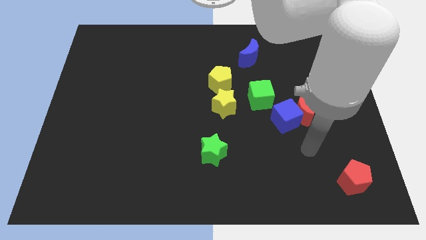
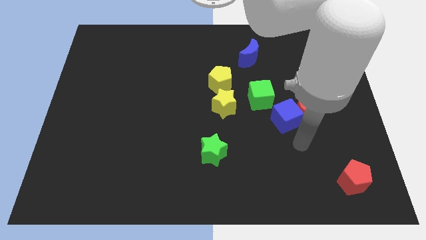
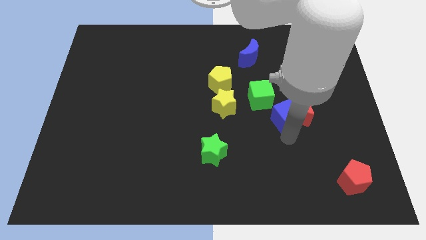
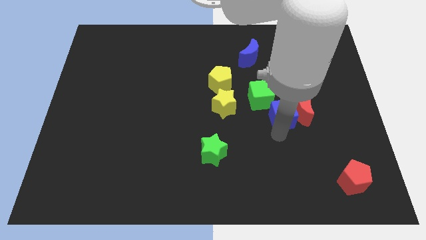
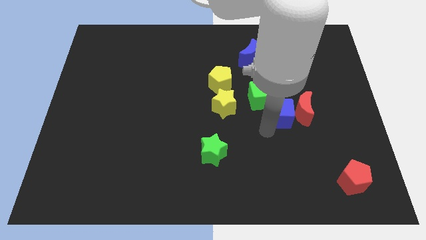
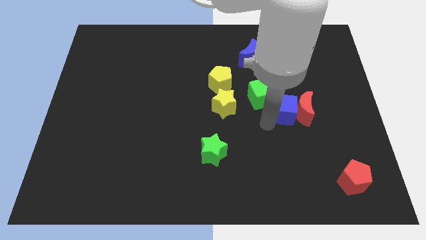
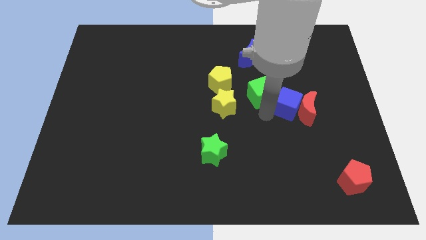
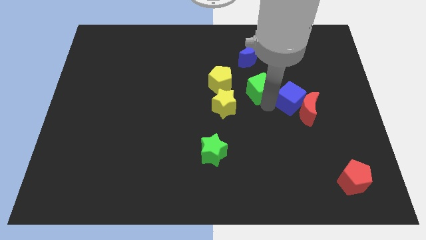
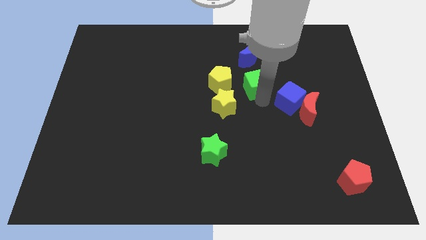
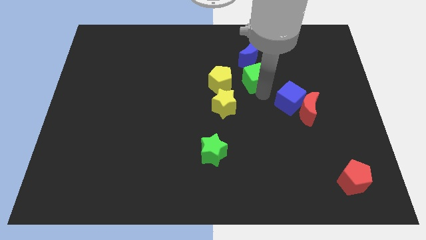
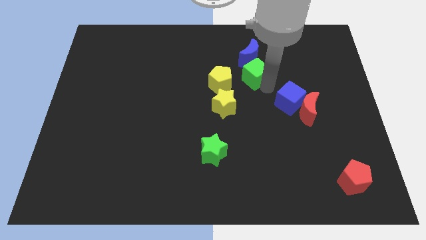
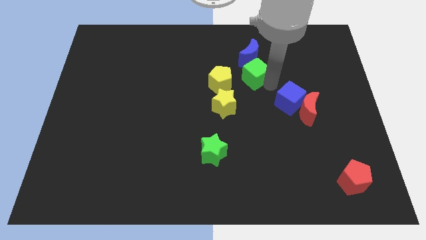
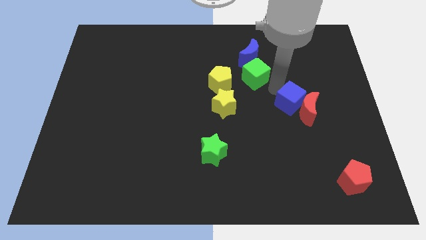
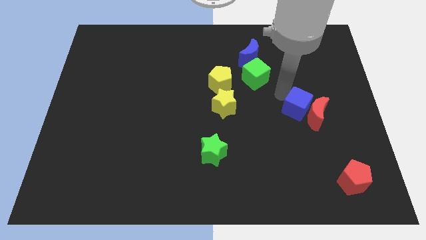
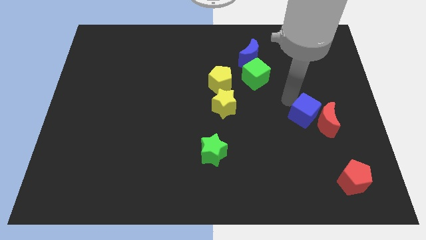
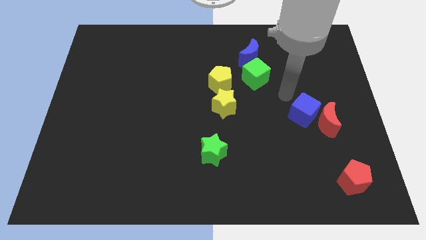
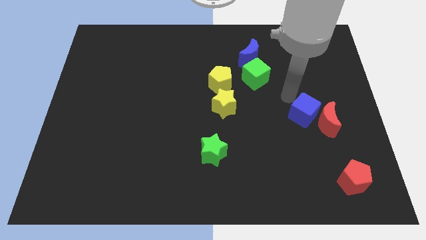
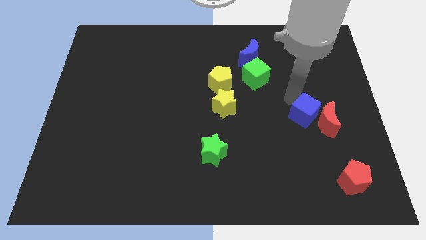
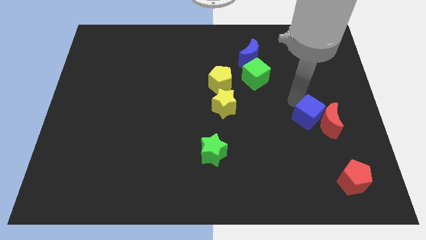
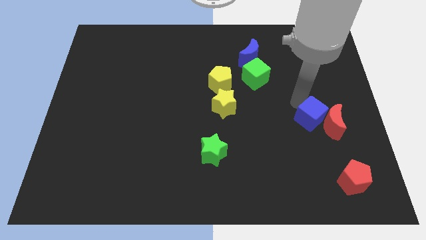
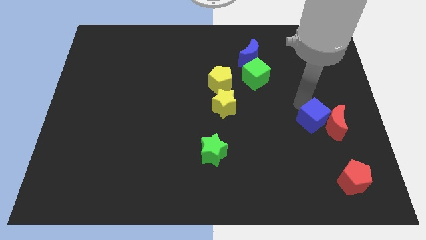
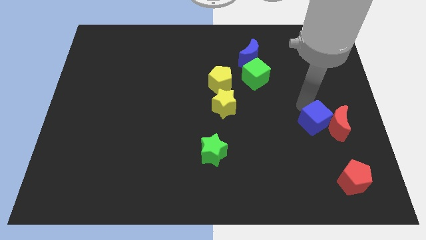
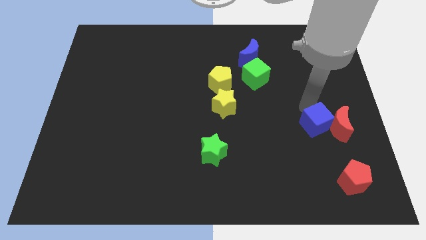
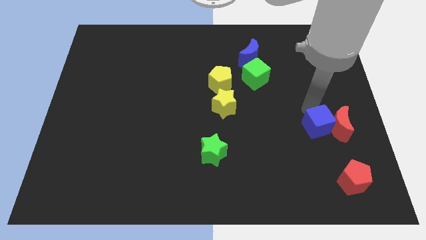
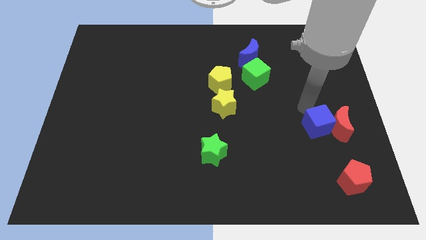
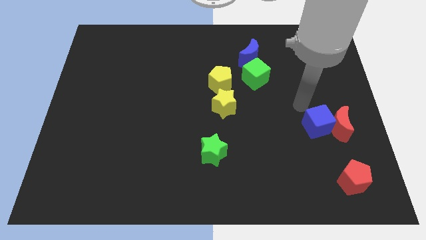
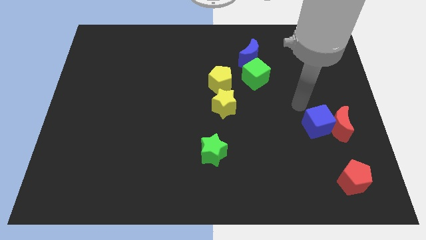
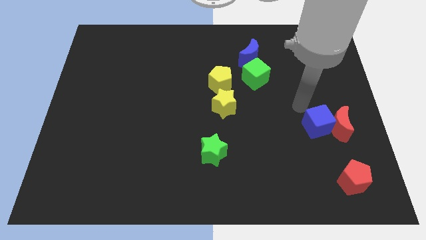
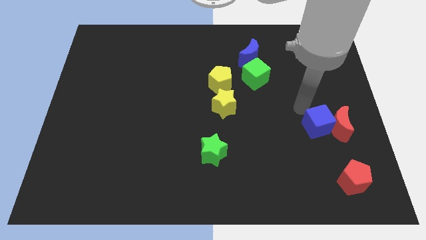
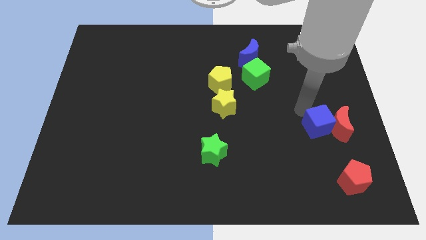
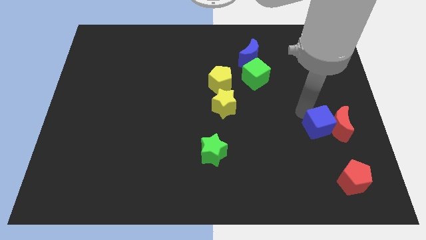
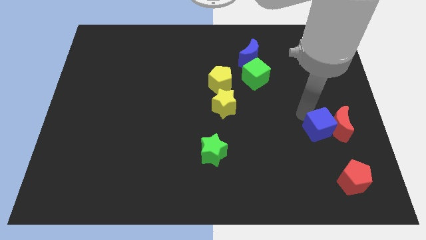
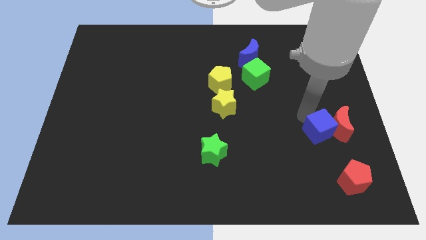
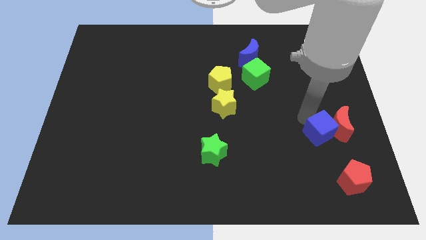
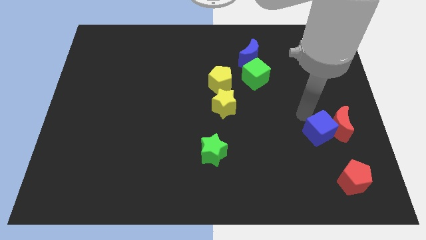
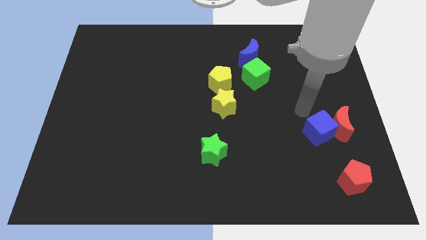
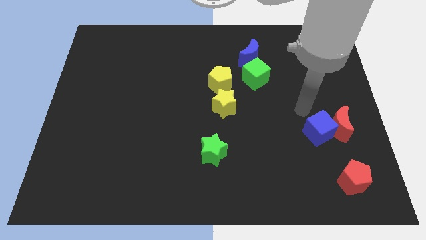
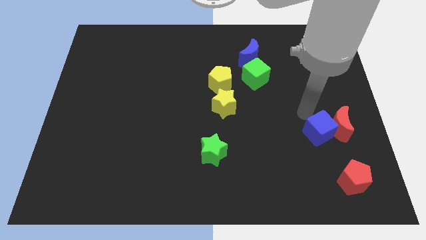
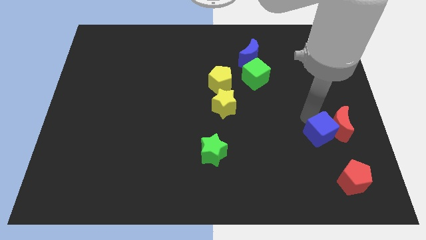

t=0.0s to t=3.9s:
pull the blue cube apart from the red moon and green cube

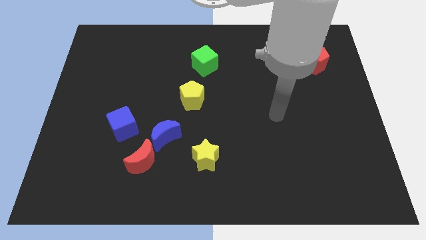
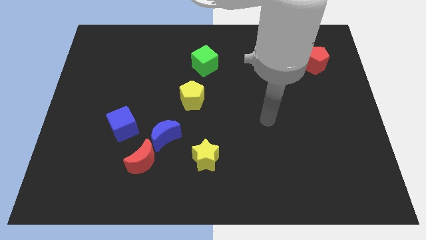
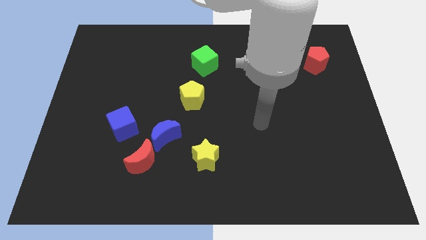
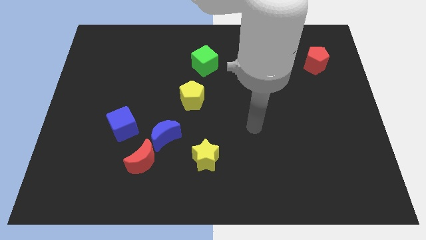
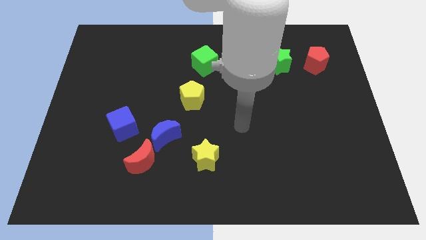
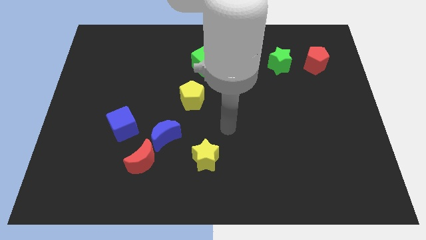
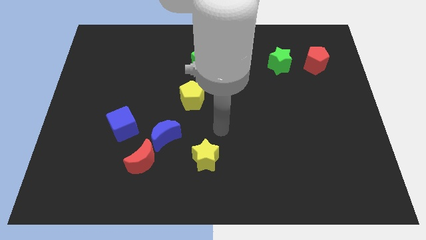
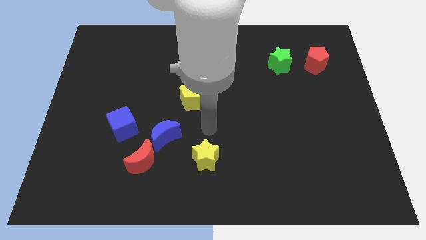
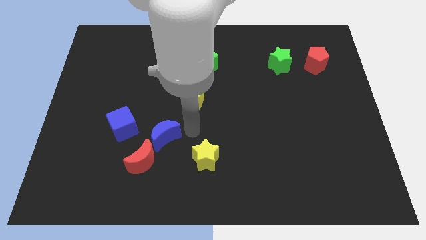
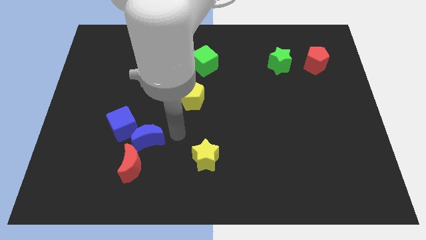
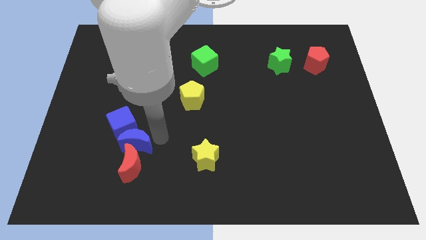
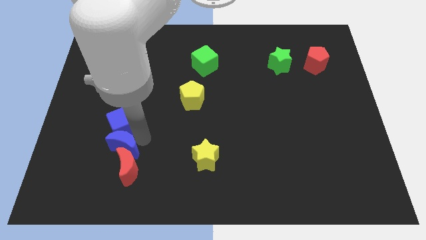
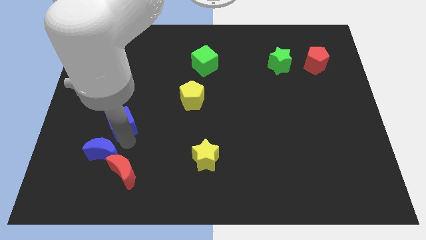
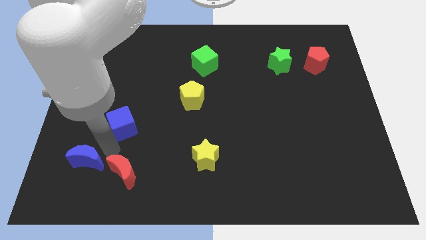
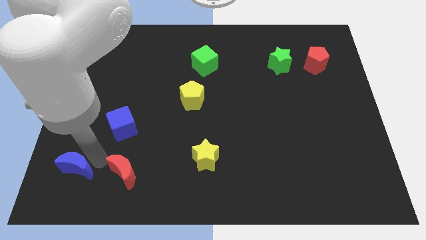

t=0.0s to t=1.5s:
move the red moon away from the blue moon

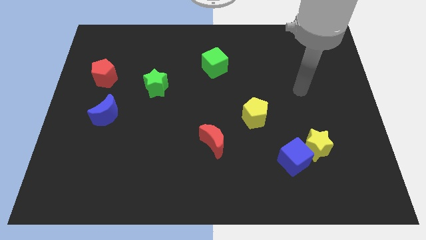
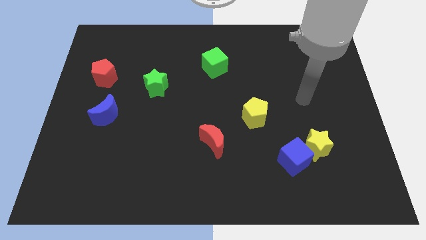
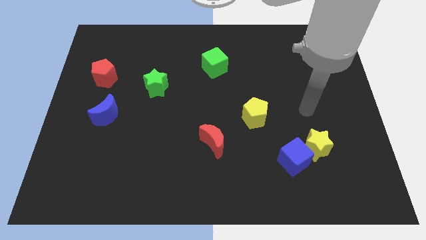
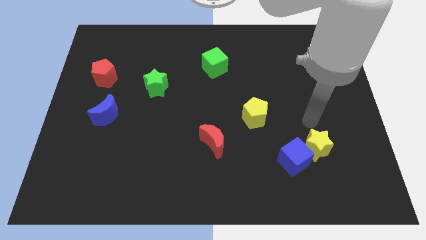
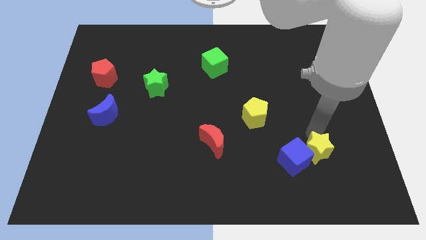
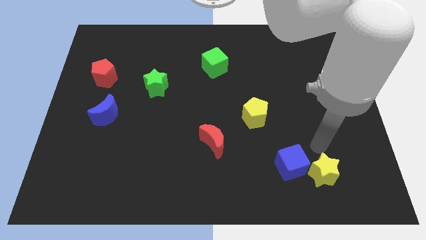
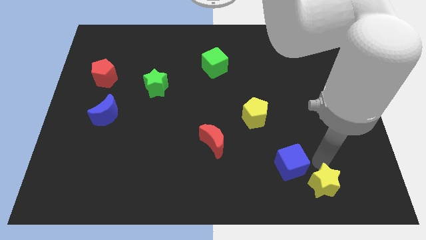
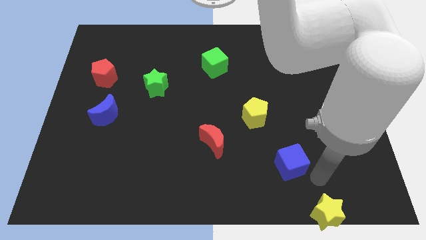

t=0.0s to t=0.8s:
pull the blue cube apart from the yellow star

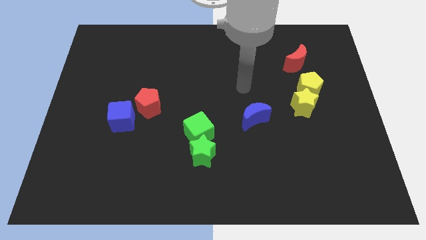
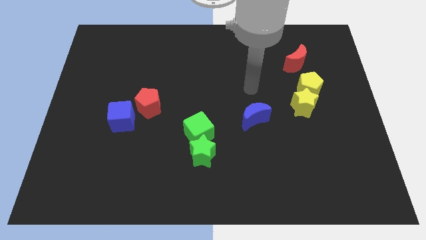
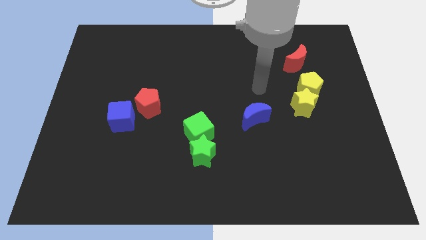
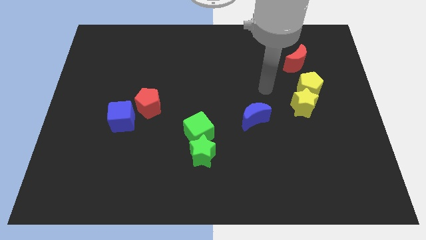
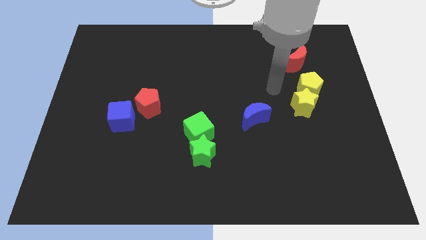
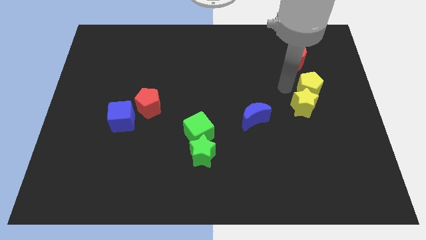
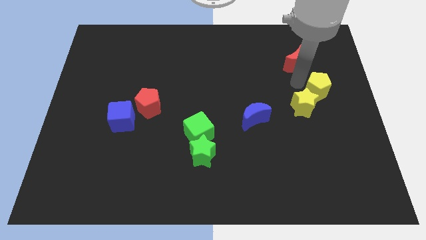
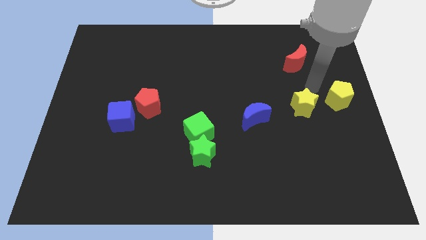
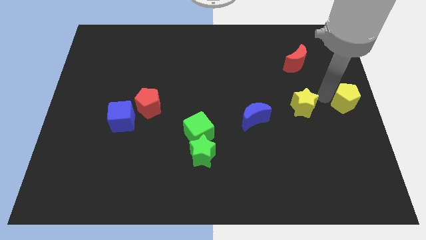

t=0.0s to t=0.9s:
move the yellow star away from the yellow pentagon

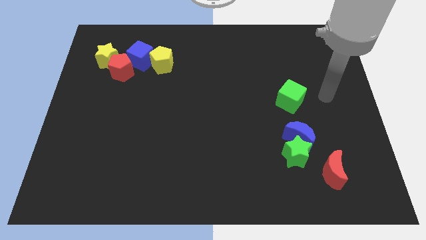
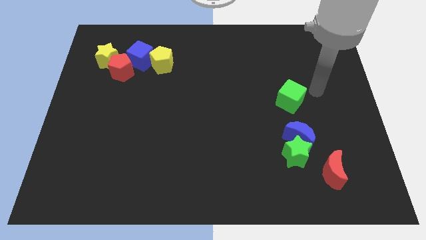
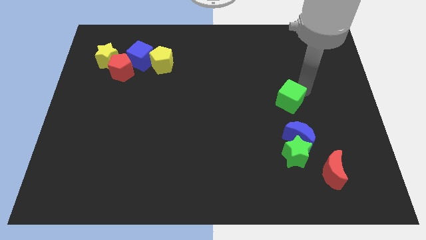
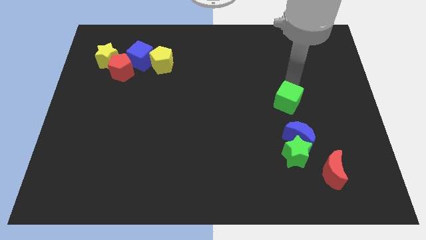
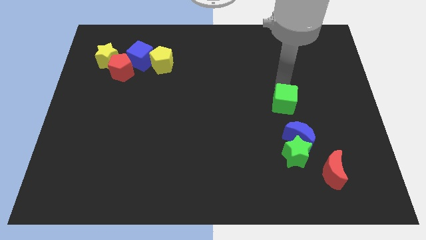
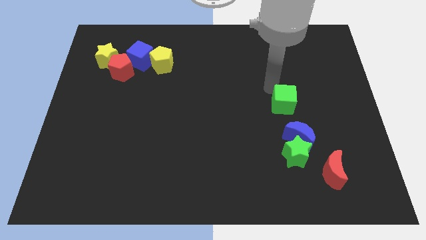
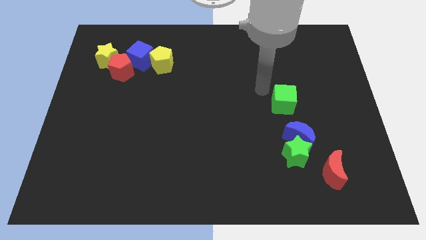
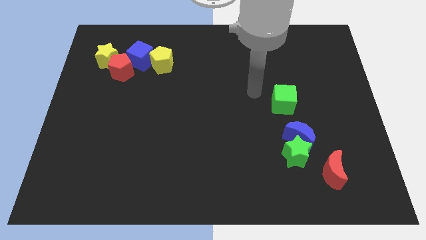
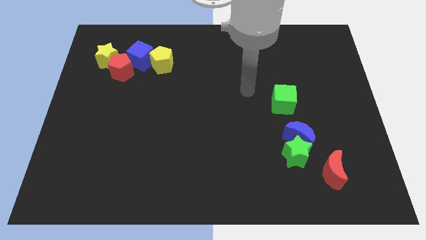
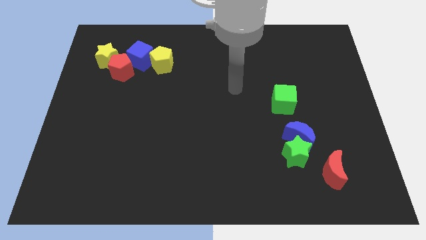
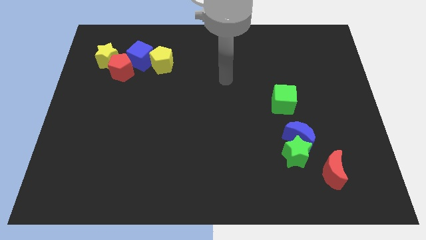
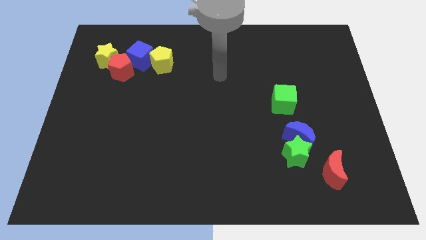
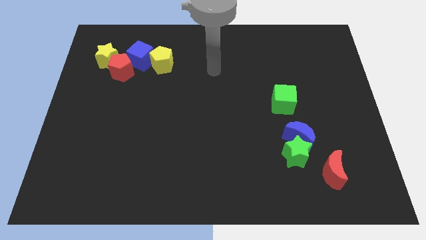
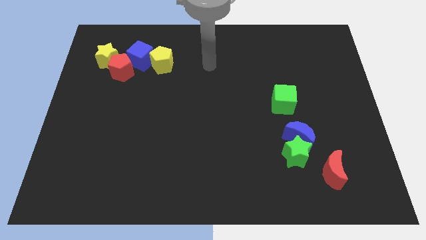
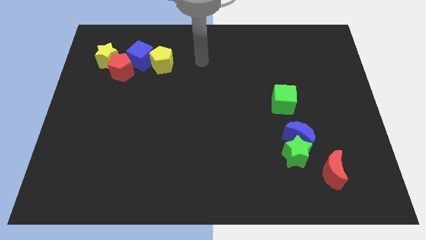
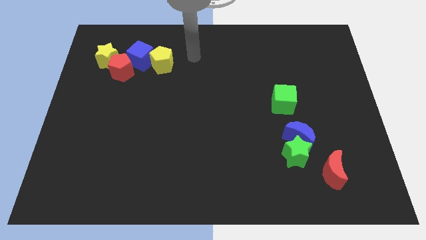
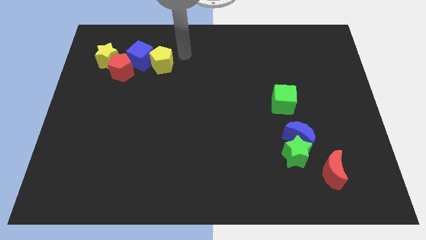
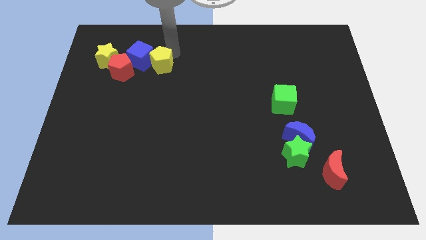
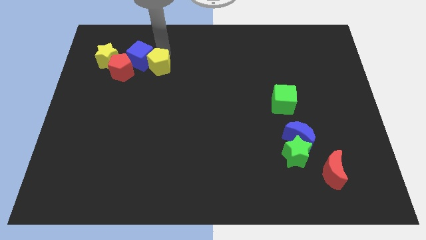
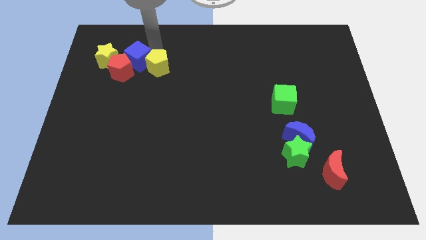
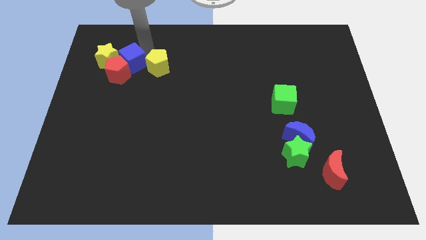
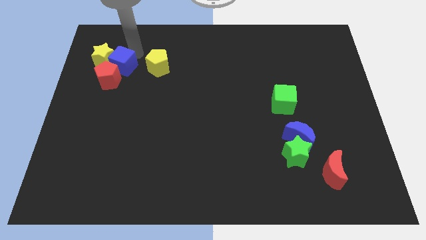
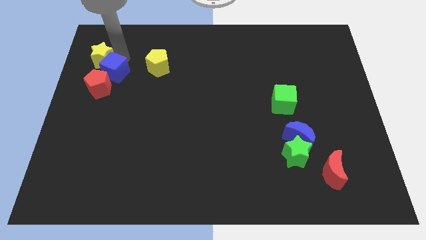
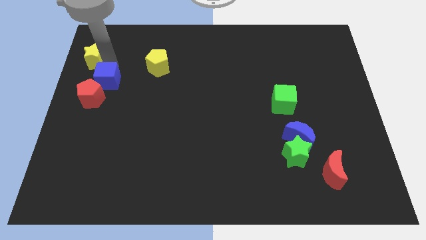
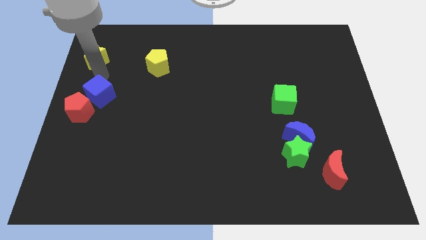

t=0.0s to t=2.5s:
pull the red pentagon apart from the yellow star and blue cube
